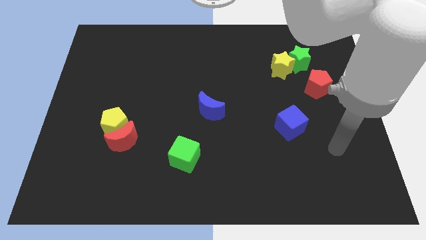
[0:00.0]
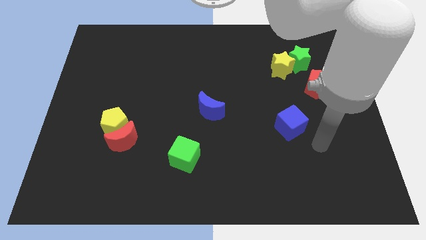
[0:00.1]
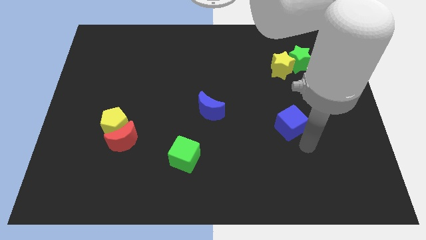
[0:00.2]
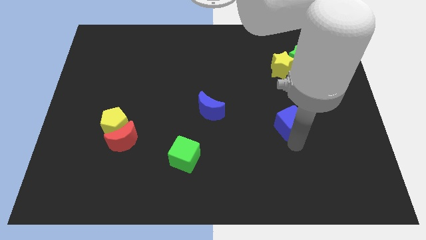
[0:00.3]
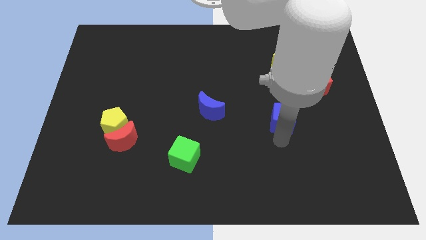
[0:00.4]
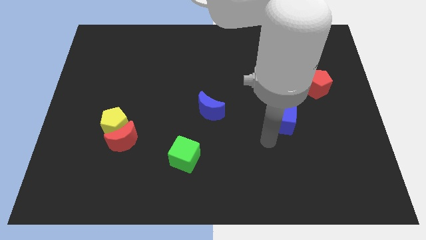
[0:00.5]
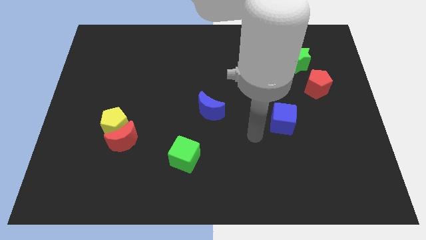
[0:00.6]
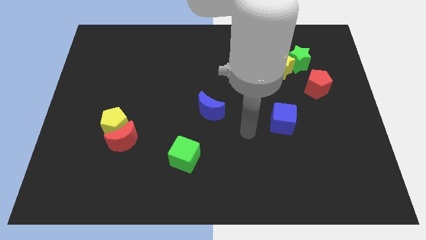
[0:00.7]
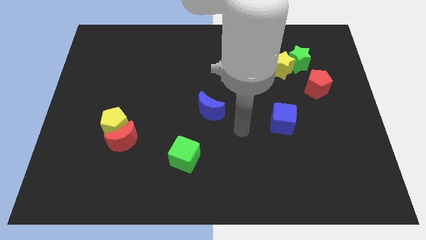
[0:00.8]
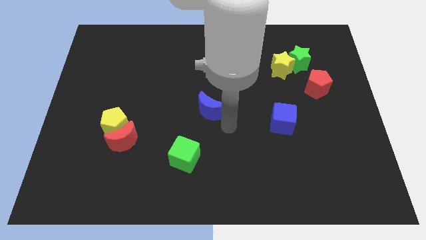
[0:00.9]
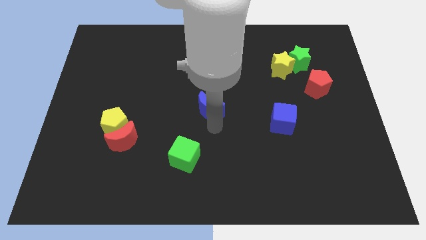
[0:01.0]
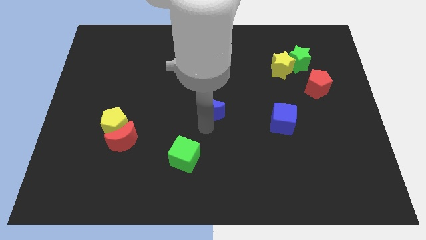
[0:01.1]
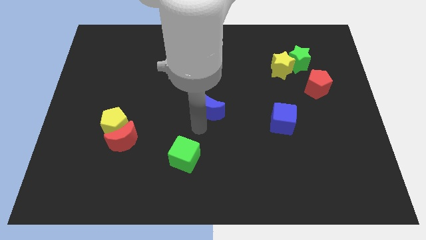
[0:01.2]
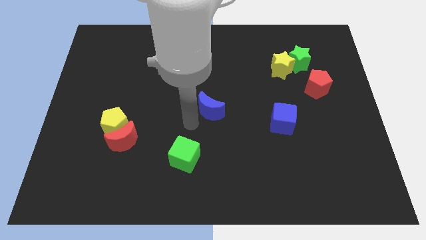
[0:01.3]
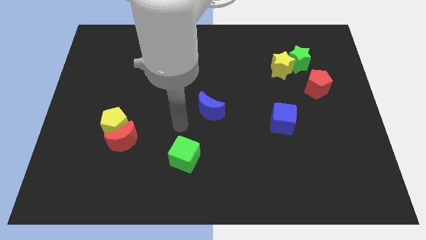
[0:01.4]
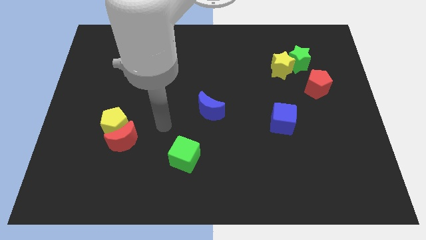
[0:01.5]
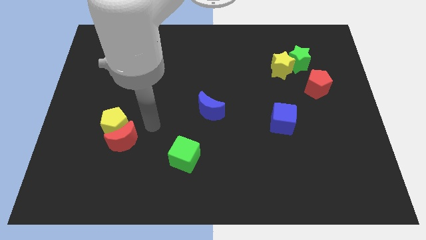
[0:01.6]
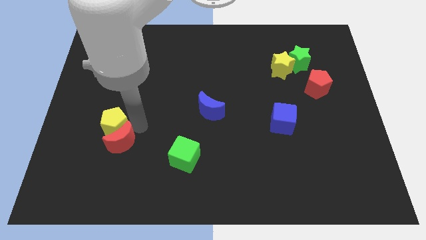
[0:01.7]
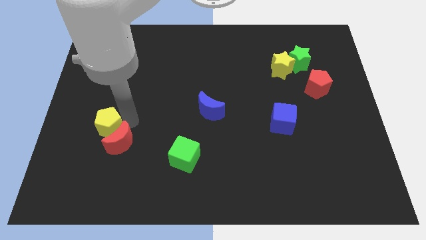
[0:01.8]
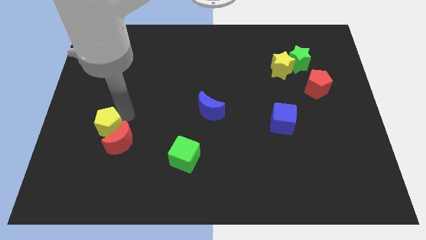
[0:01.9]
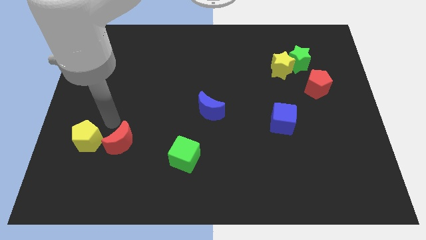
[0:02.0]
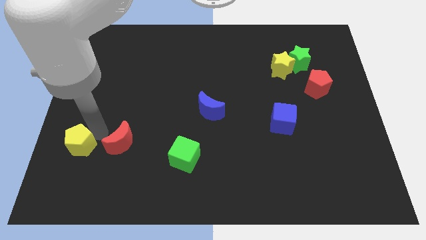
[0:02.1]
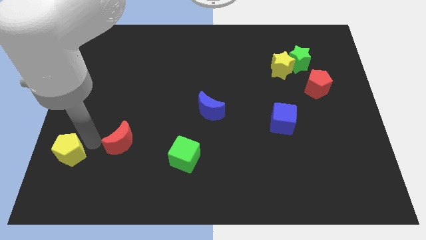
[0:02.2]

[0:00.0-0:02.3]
move the red moon away from the yellow pentagon

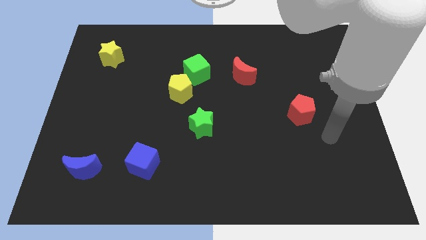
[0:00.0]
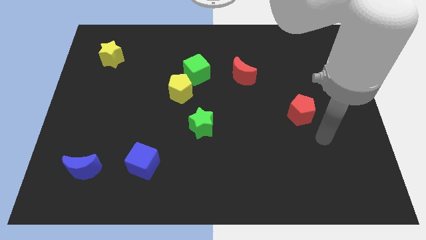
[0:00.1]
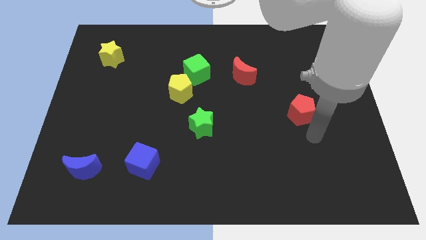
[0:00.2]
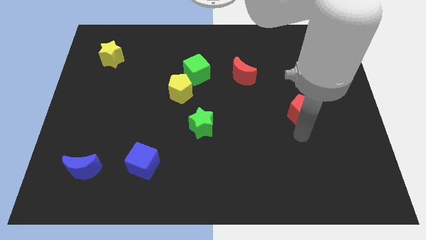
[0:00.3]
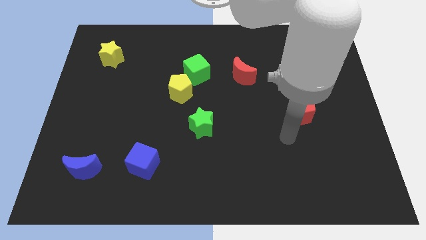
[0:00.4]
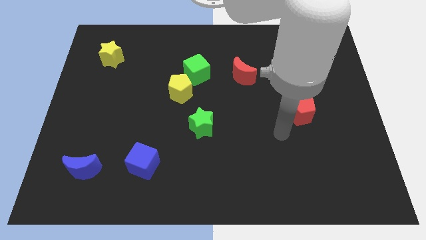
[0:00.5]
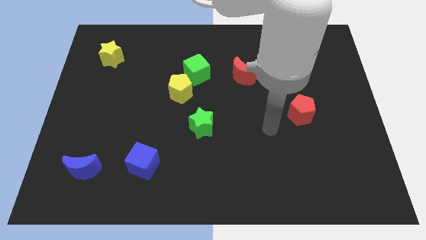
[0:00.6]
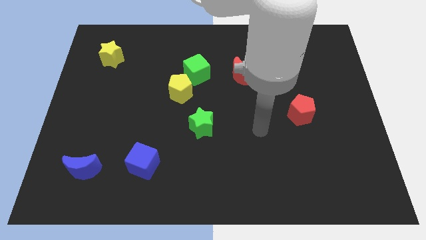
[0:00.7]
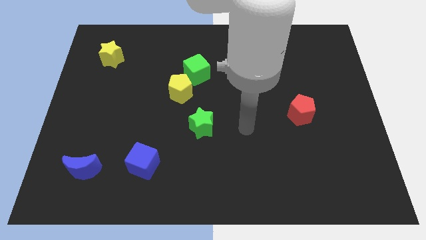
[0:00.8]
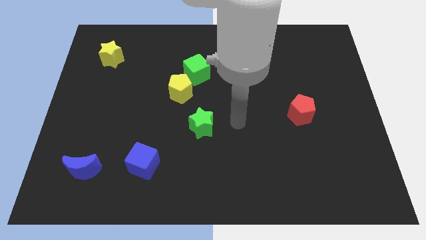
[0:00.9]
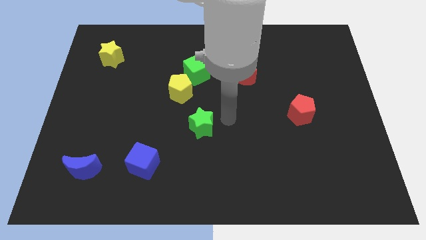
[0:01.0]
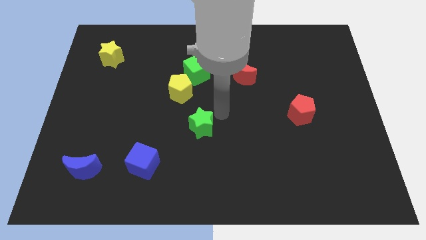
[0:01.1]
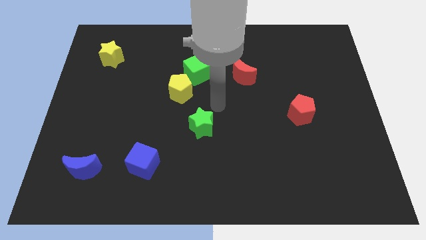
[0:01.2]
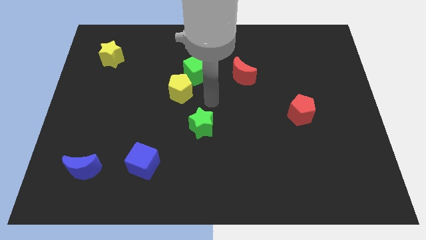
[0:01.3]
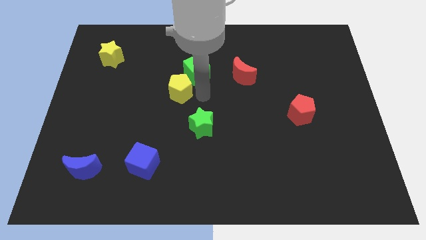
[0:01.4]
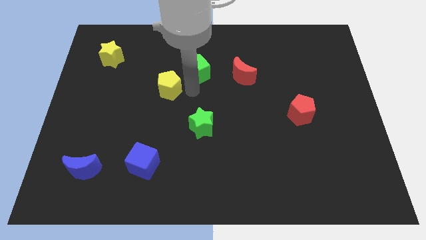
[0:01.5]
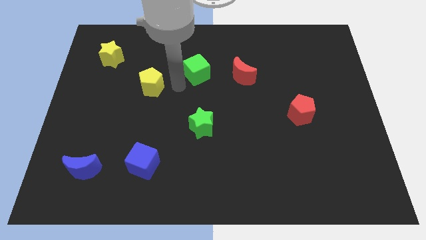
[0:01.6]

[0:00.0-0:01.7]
pull the green cube apart from the yellow pentagon

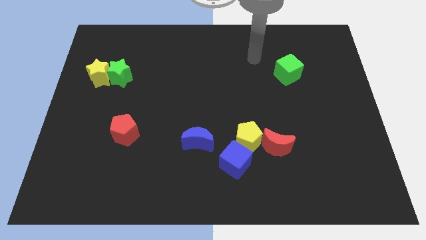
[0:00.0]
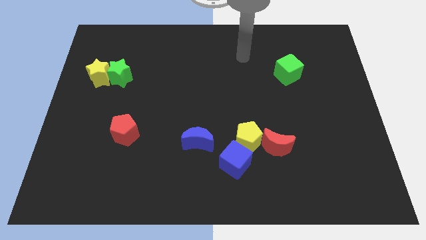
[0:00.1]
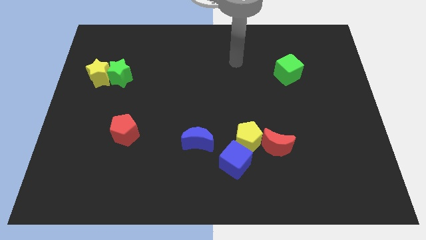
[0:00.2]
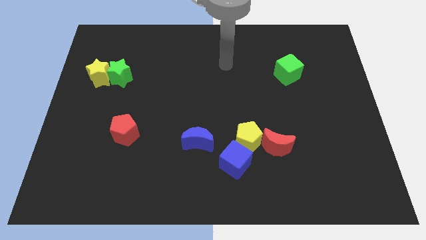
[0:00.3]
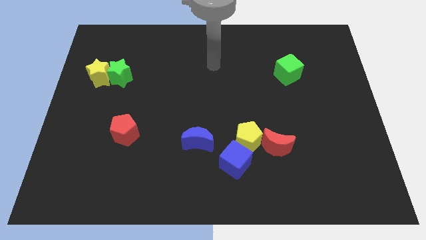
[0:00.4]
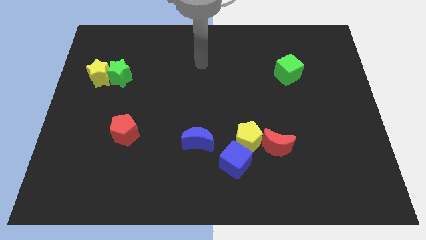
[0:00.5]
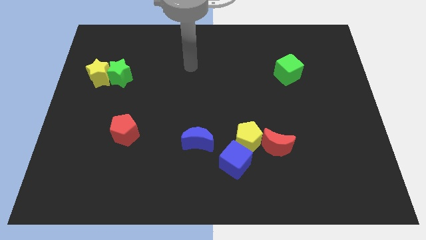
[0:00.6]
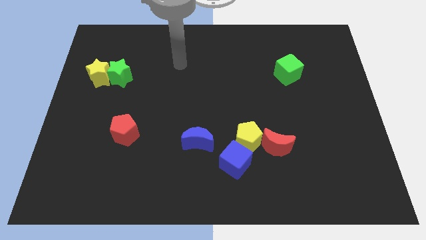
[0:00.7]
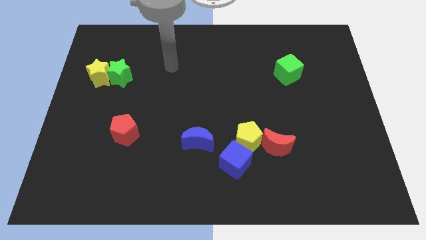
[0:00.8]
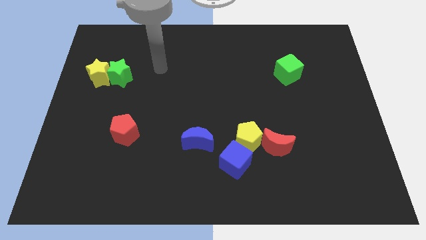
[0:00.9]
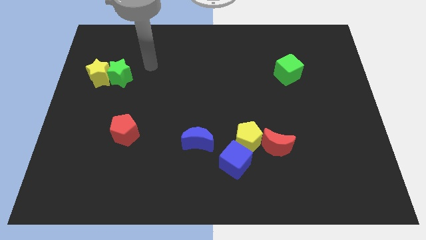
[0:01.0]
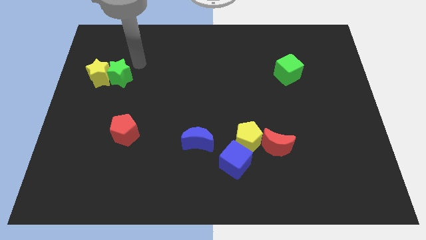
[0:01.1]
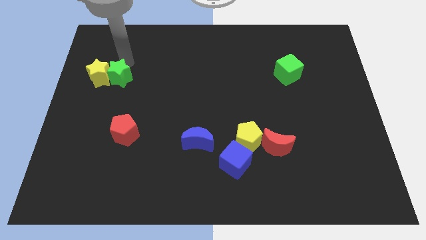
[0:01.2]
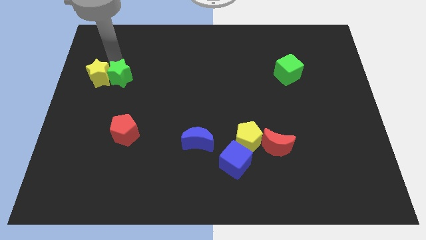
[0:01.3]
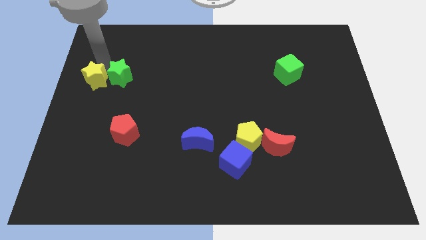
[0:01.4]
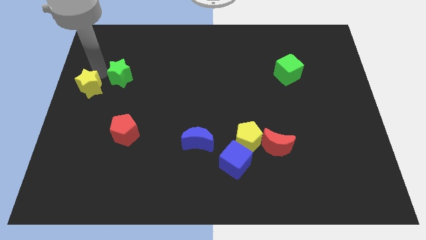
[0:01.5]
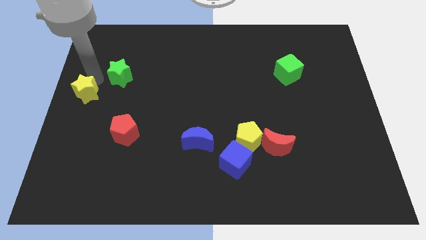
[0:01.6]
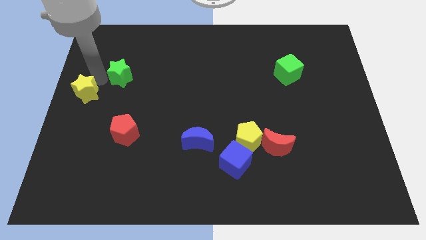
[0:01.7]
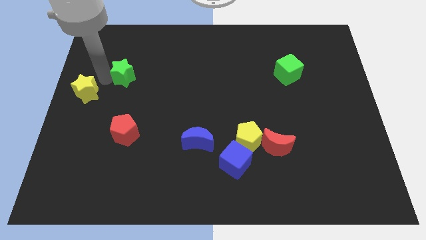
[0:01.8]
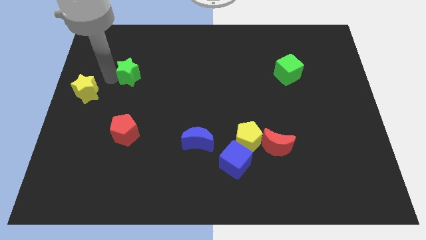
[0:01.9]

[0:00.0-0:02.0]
pull the green star apart from the yellow star

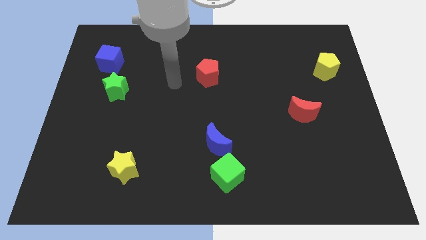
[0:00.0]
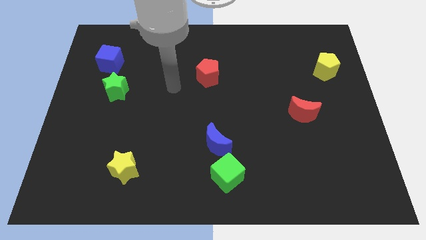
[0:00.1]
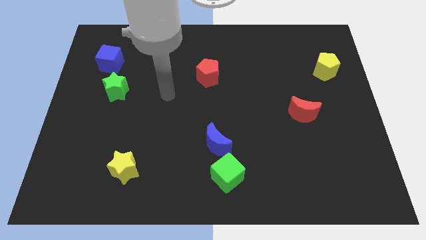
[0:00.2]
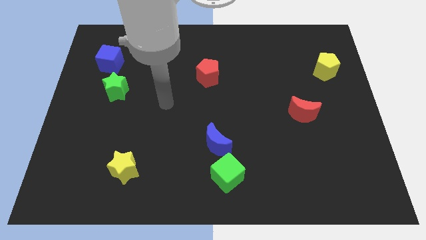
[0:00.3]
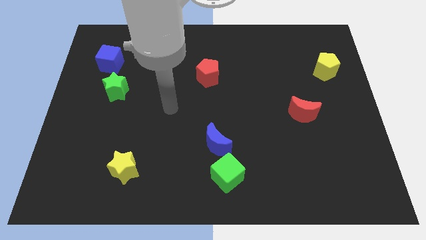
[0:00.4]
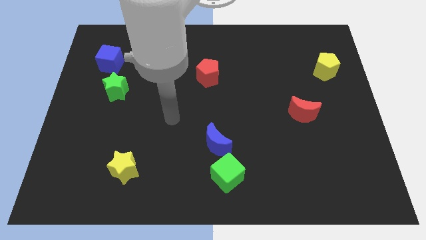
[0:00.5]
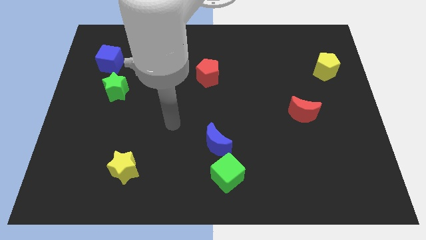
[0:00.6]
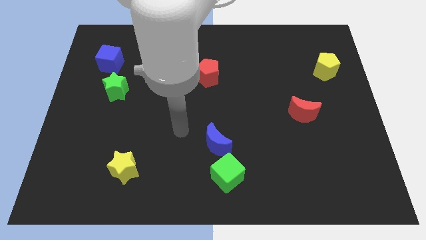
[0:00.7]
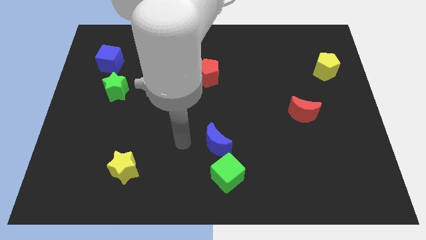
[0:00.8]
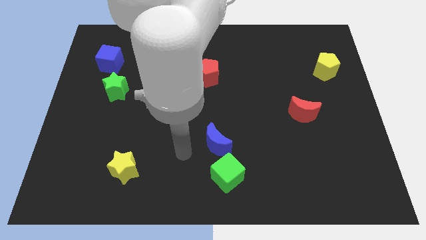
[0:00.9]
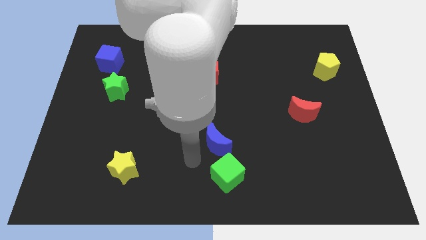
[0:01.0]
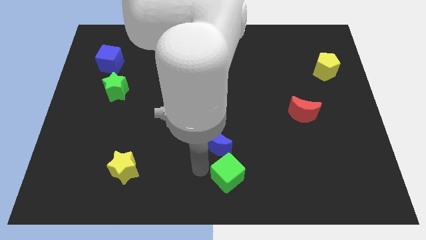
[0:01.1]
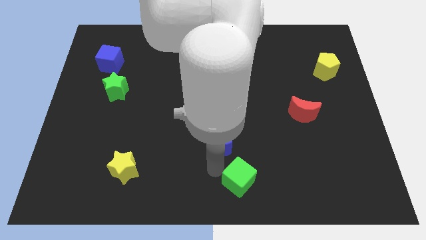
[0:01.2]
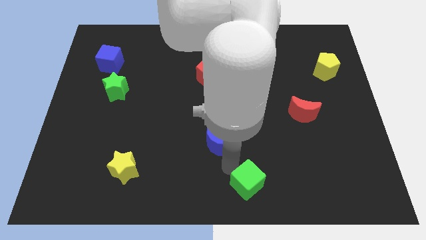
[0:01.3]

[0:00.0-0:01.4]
separate the blue moon from the green cube

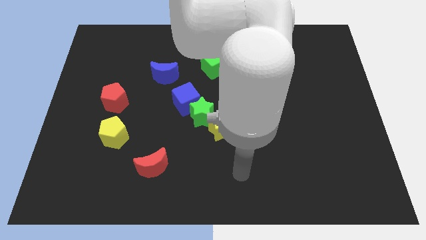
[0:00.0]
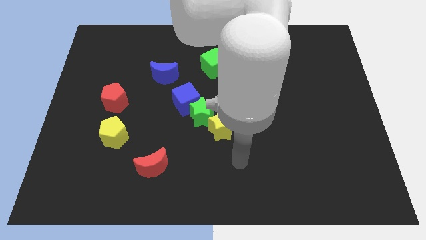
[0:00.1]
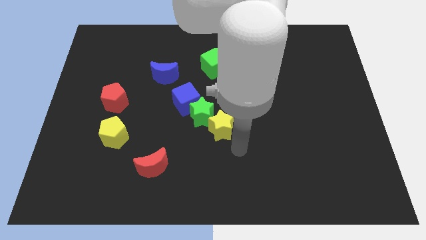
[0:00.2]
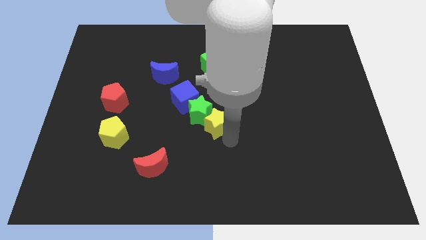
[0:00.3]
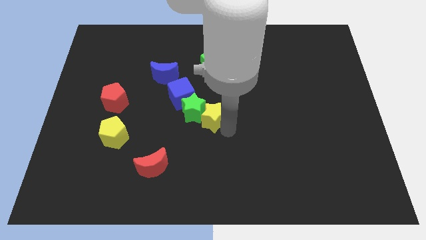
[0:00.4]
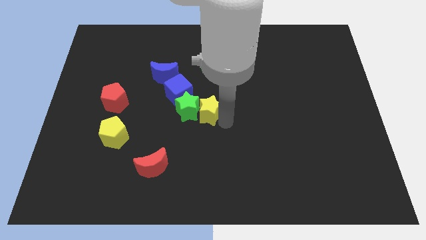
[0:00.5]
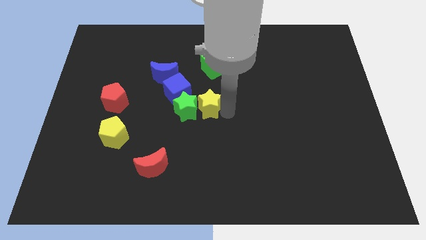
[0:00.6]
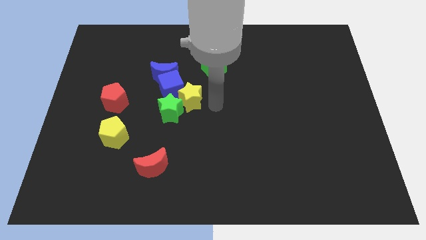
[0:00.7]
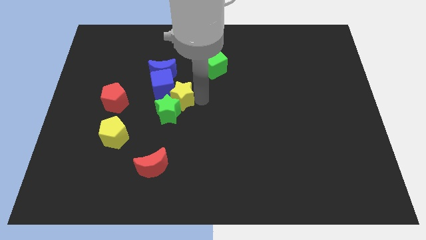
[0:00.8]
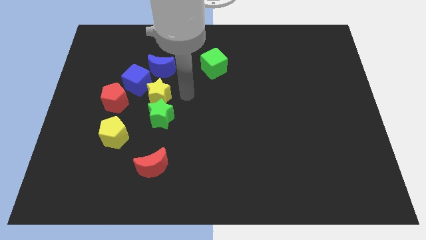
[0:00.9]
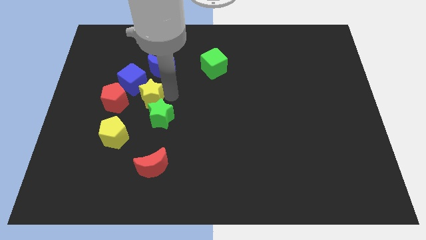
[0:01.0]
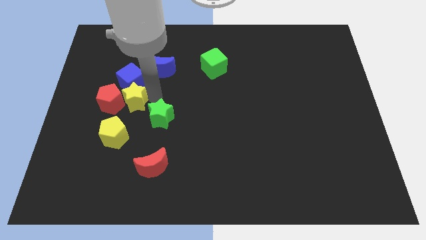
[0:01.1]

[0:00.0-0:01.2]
move the green star away from the blue cube and yellow star

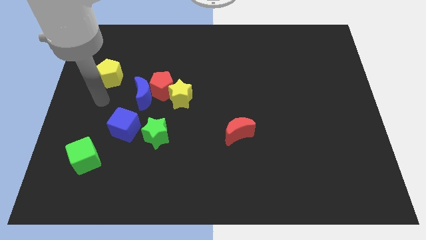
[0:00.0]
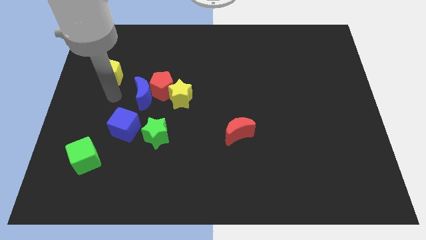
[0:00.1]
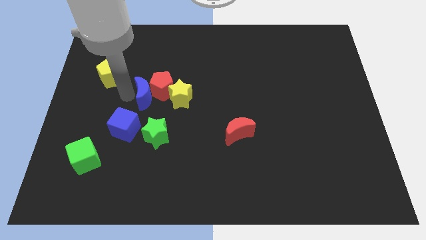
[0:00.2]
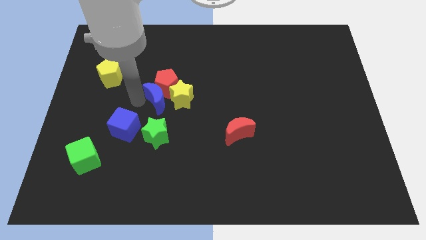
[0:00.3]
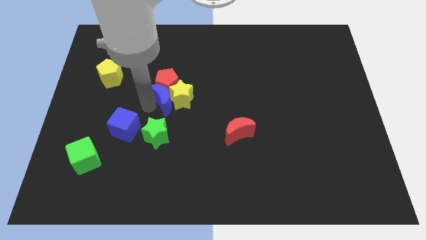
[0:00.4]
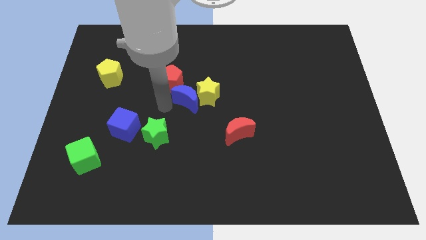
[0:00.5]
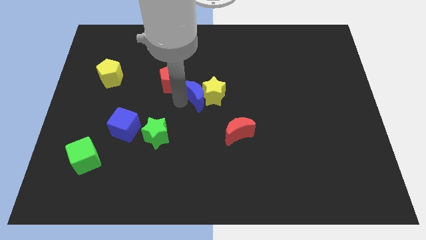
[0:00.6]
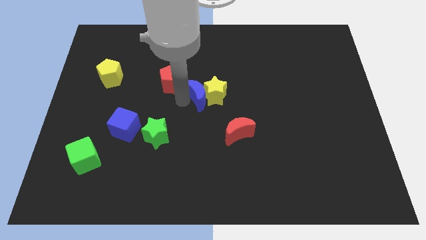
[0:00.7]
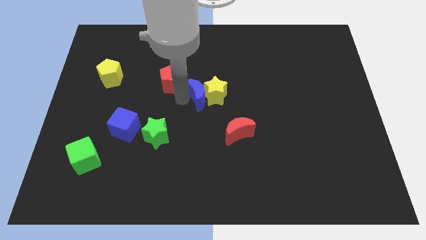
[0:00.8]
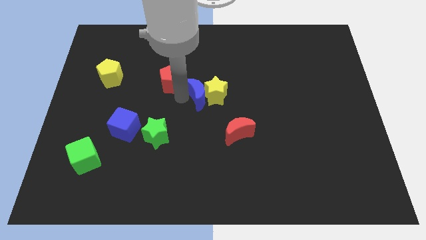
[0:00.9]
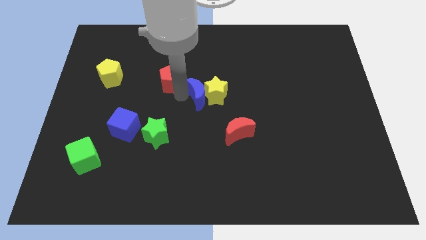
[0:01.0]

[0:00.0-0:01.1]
move the red pentagon away from the blue moon and yellow star
